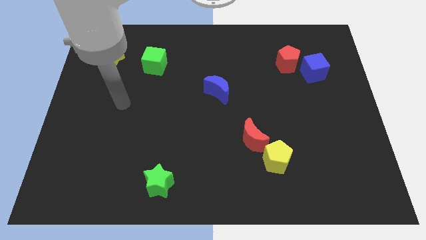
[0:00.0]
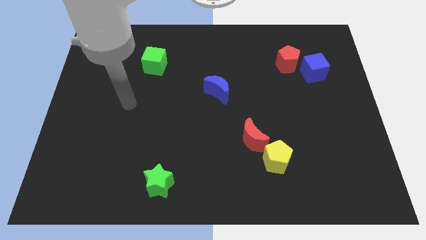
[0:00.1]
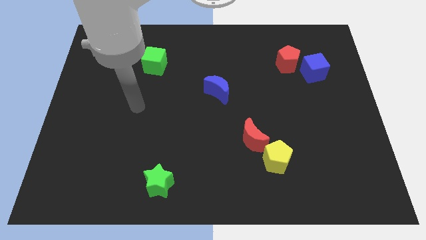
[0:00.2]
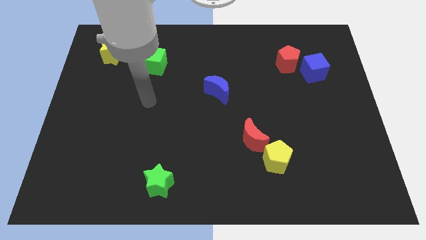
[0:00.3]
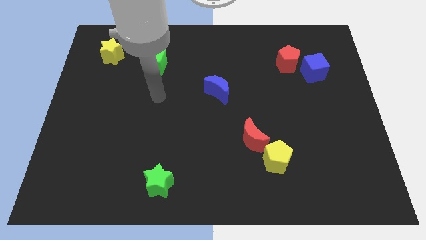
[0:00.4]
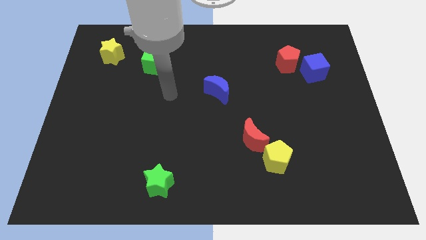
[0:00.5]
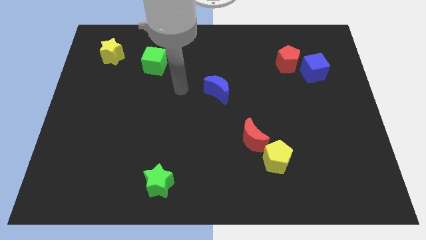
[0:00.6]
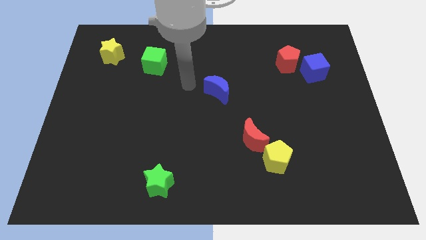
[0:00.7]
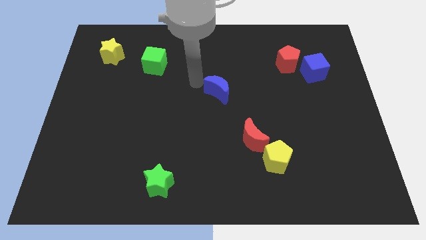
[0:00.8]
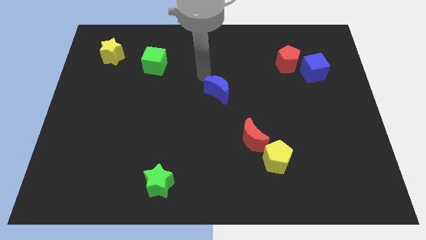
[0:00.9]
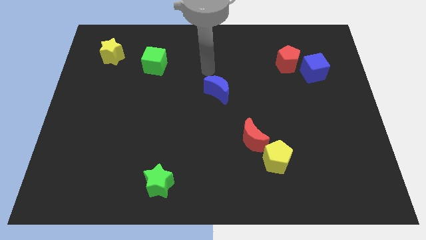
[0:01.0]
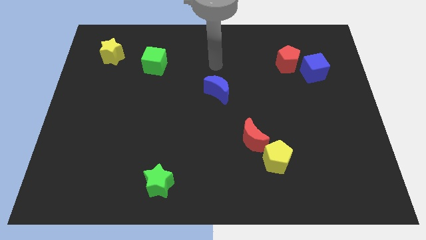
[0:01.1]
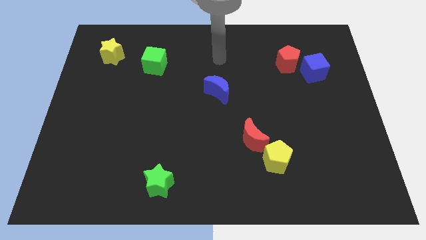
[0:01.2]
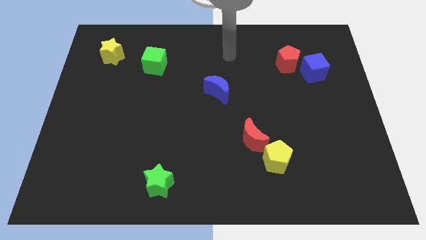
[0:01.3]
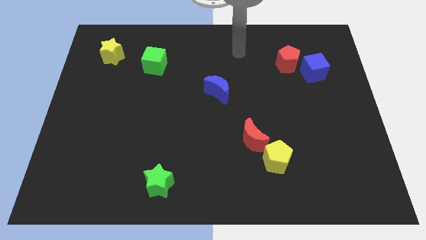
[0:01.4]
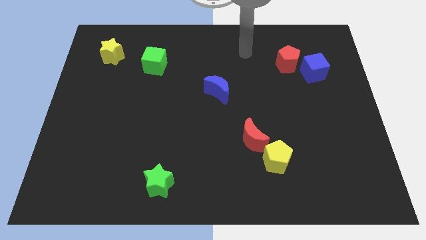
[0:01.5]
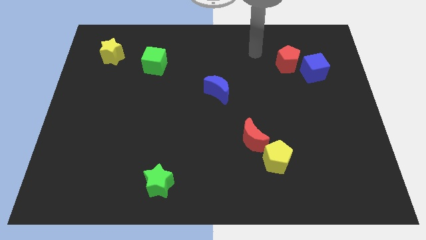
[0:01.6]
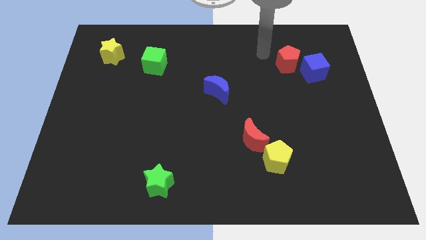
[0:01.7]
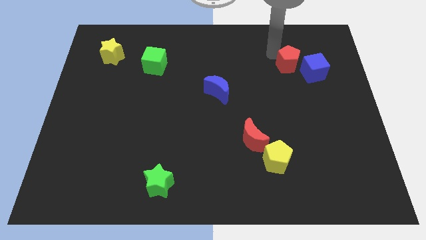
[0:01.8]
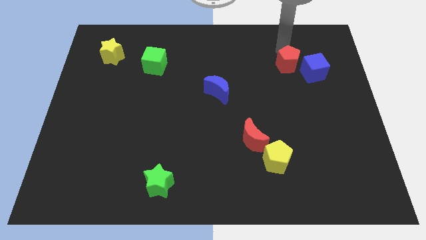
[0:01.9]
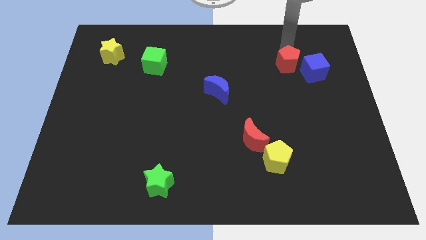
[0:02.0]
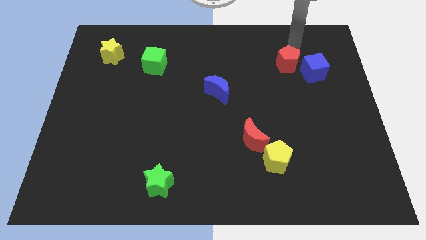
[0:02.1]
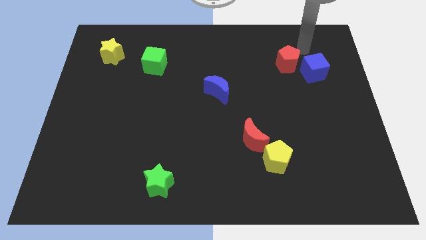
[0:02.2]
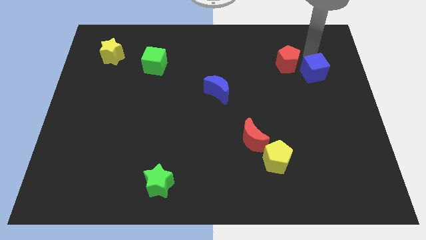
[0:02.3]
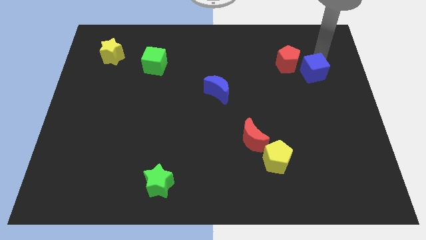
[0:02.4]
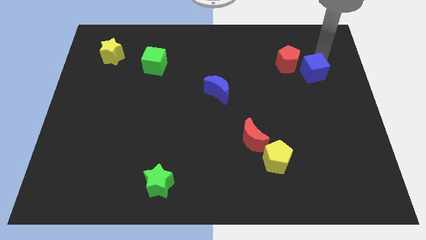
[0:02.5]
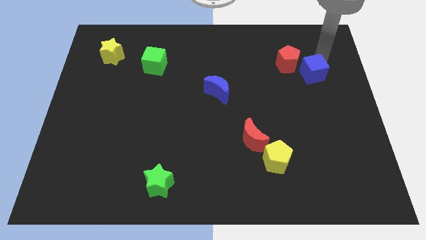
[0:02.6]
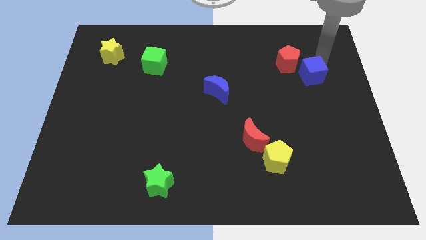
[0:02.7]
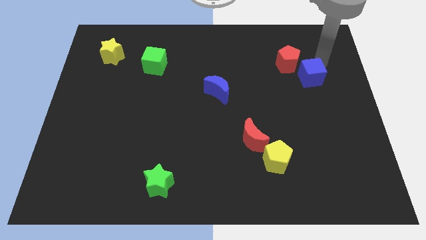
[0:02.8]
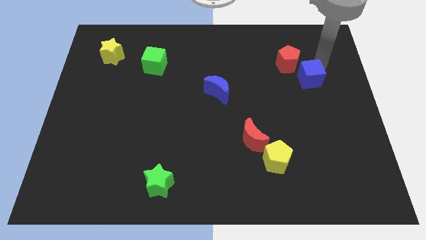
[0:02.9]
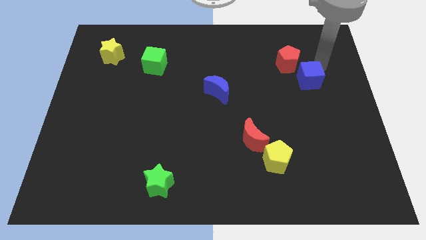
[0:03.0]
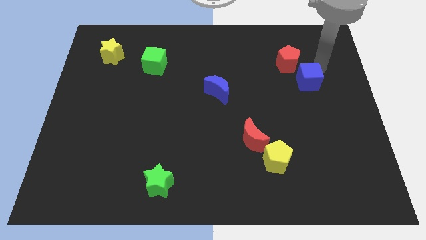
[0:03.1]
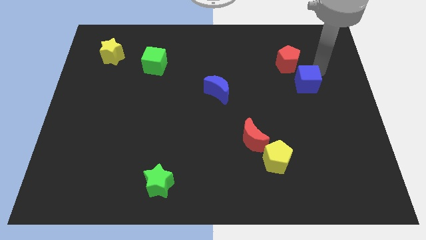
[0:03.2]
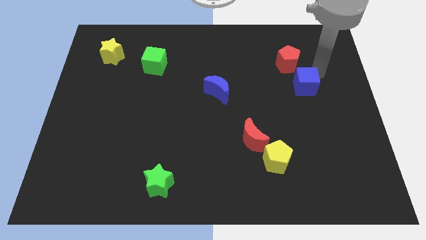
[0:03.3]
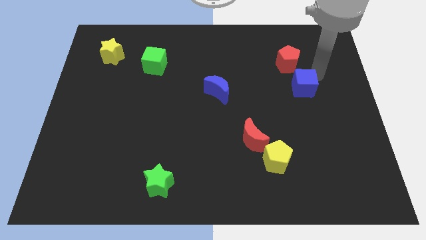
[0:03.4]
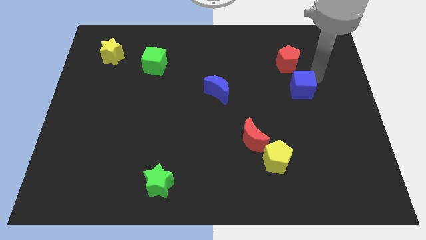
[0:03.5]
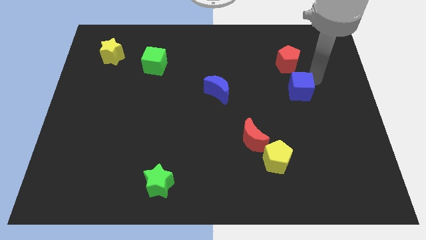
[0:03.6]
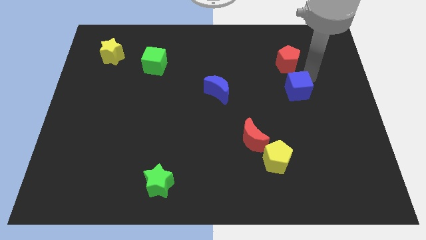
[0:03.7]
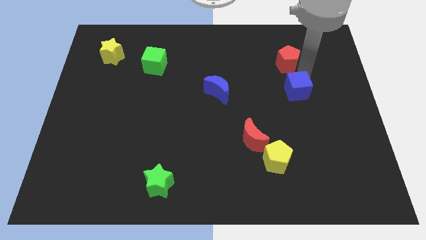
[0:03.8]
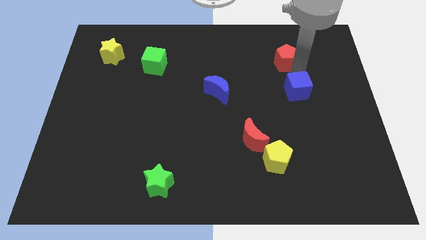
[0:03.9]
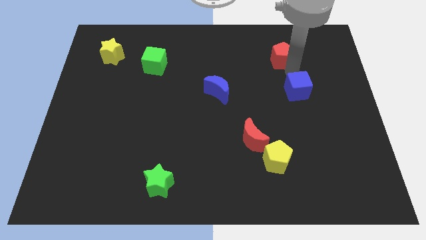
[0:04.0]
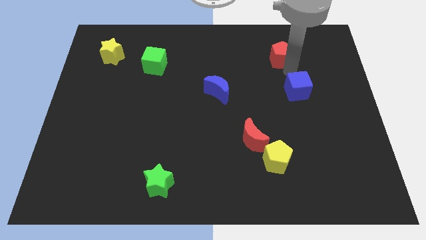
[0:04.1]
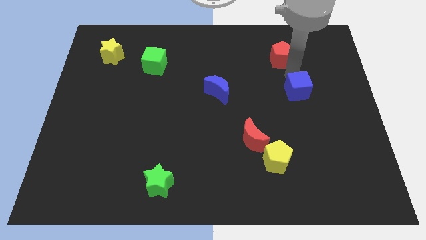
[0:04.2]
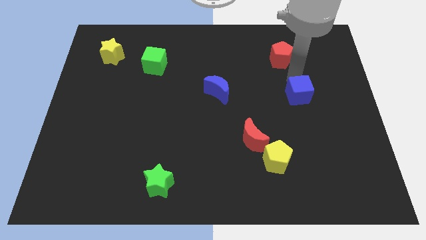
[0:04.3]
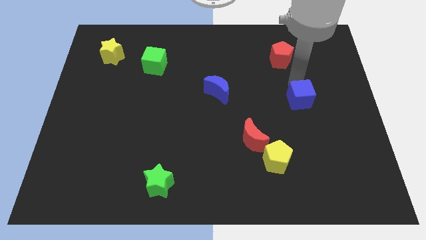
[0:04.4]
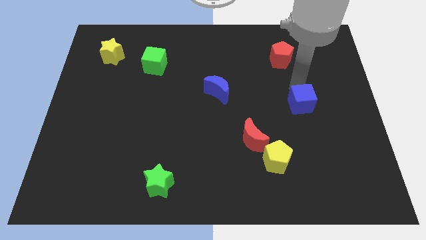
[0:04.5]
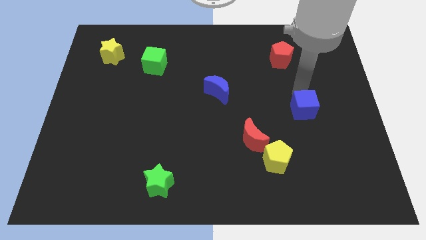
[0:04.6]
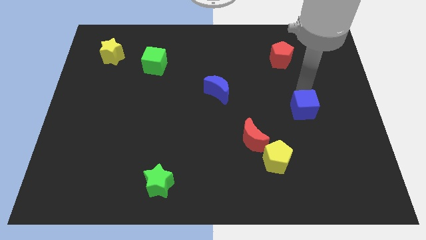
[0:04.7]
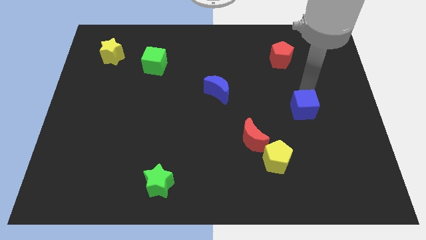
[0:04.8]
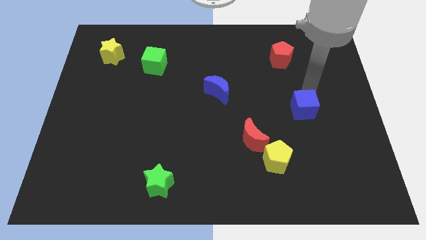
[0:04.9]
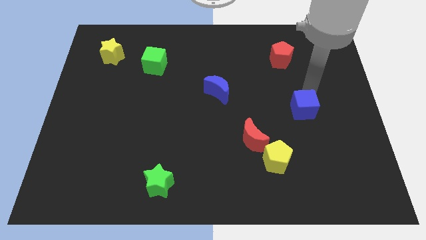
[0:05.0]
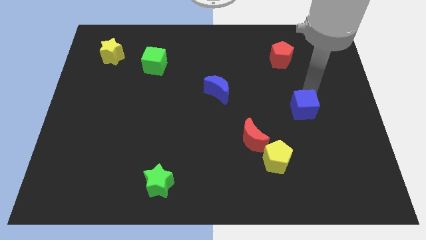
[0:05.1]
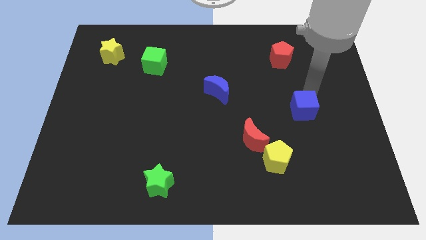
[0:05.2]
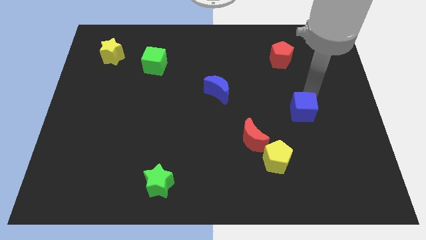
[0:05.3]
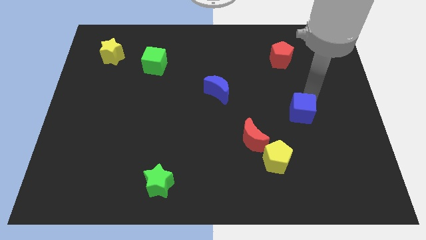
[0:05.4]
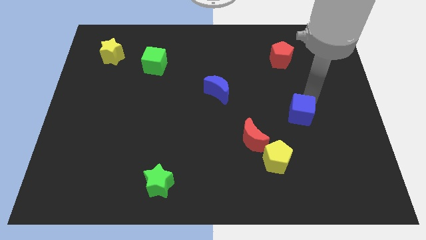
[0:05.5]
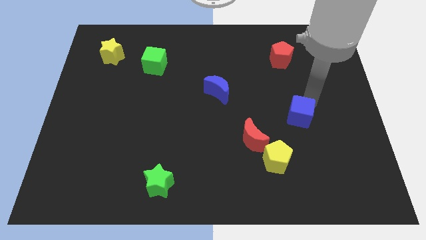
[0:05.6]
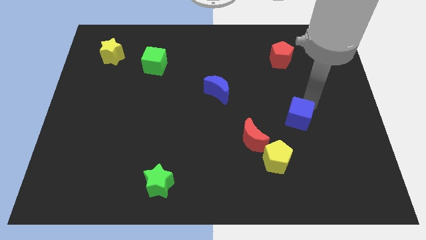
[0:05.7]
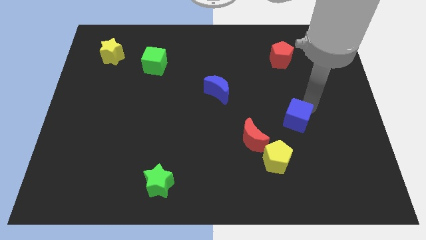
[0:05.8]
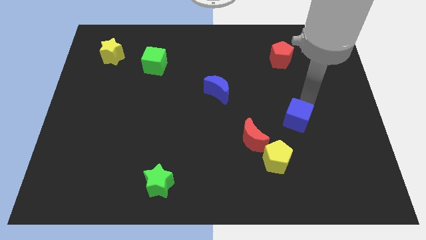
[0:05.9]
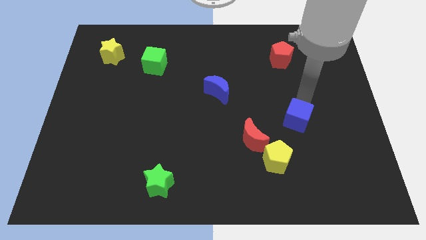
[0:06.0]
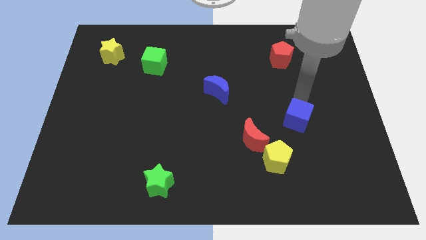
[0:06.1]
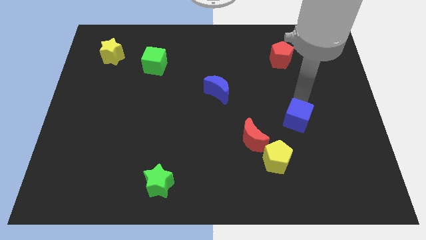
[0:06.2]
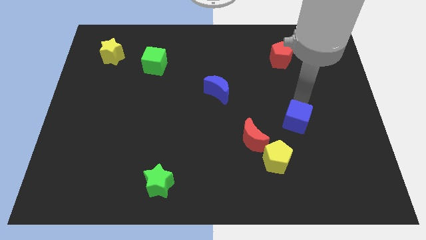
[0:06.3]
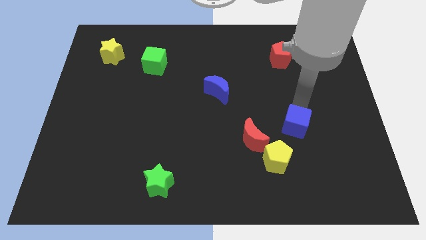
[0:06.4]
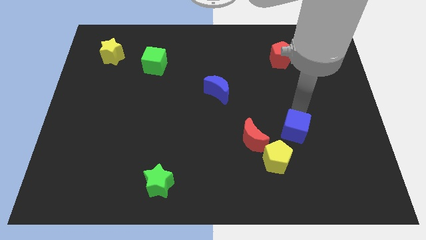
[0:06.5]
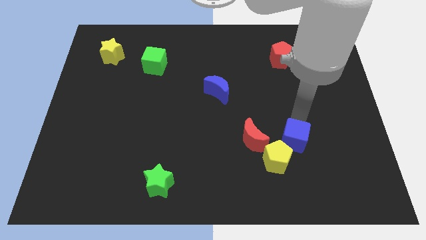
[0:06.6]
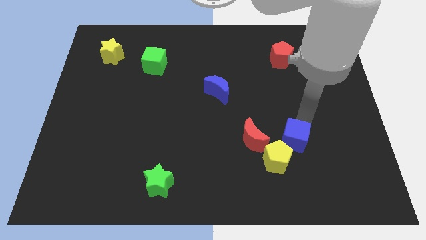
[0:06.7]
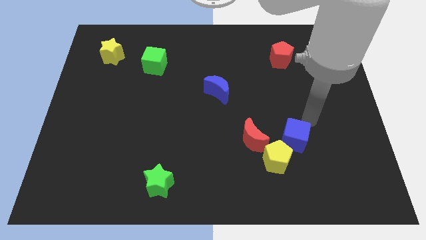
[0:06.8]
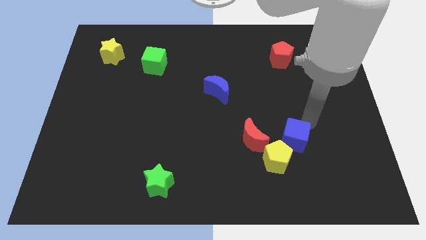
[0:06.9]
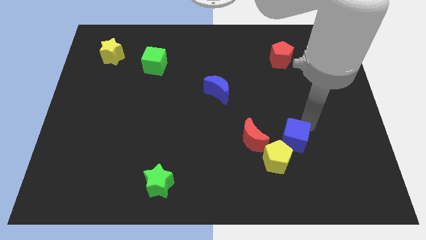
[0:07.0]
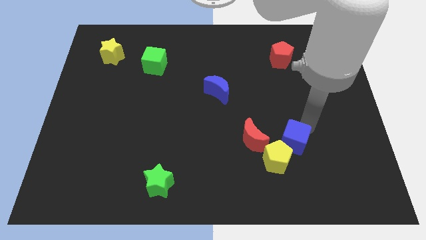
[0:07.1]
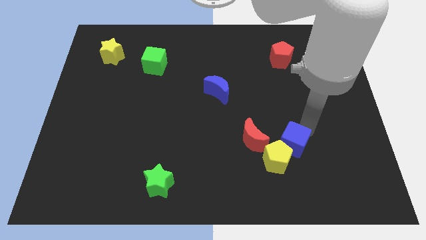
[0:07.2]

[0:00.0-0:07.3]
push the blue cube towards the yellow pentagon
